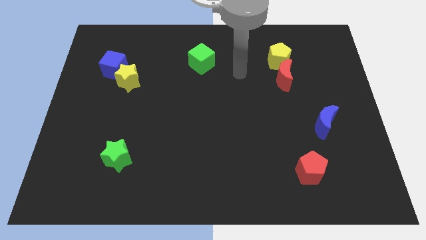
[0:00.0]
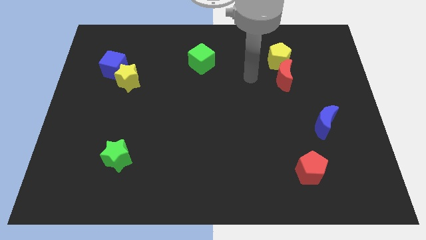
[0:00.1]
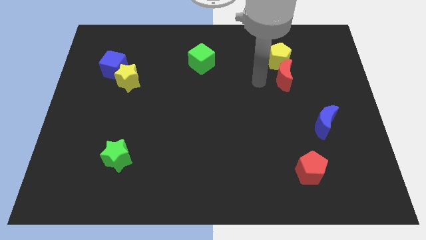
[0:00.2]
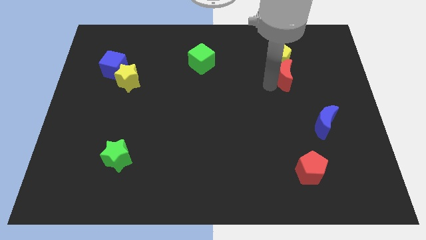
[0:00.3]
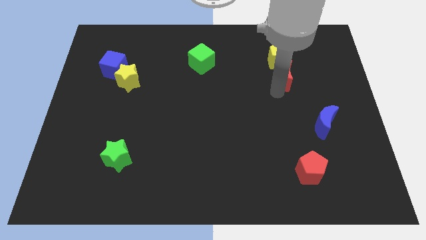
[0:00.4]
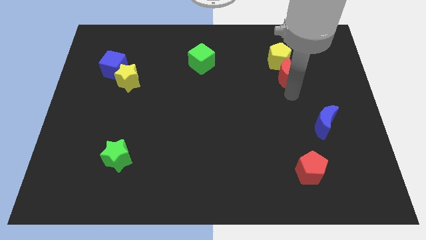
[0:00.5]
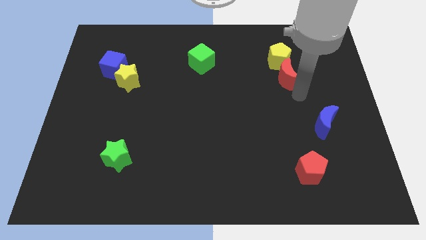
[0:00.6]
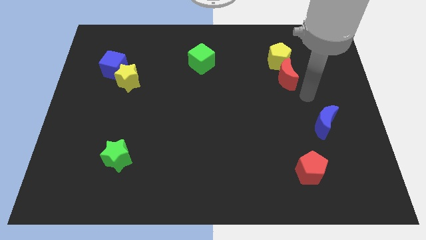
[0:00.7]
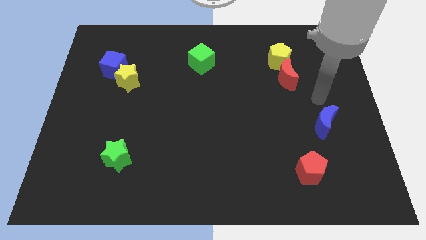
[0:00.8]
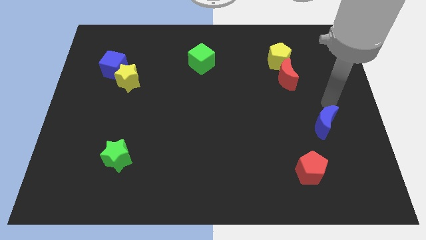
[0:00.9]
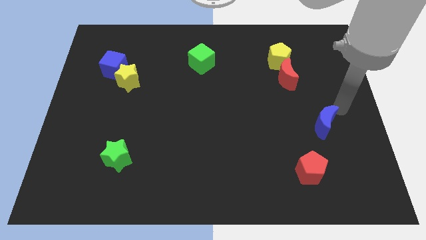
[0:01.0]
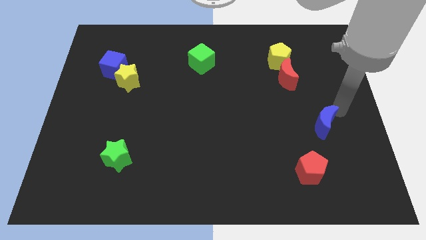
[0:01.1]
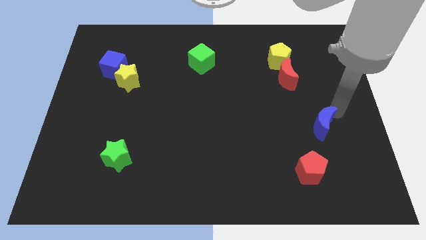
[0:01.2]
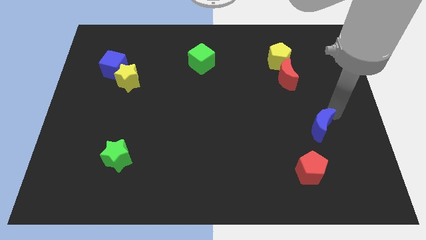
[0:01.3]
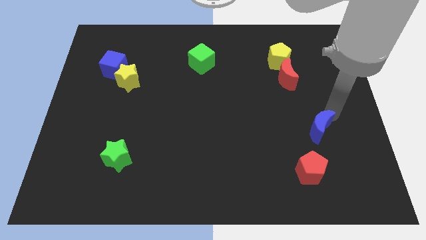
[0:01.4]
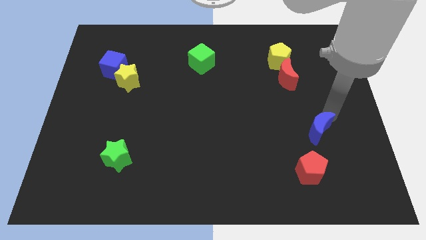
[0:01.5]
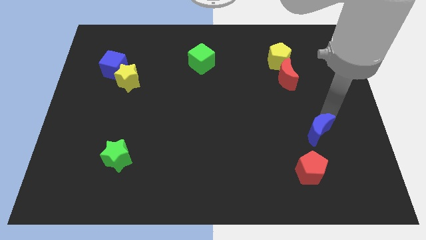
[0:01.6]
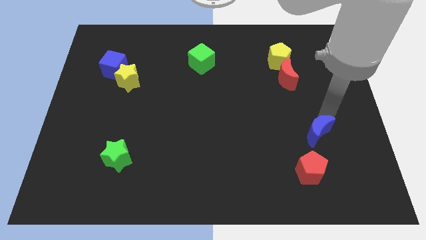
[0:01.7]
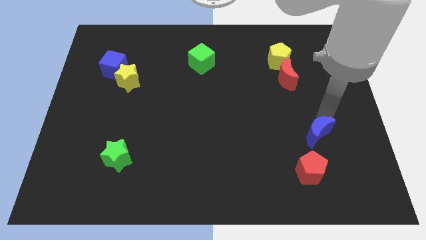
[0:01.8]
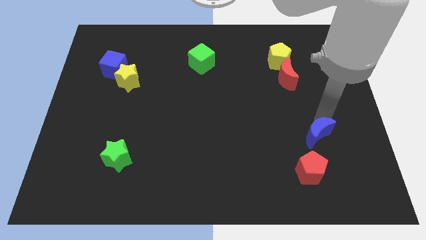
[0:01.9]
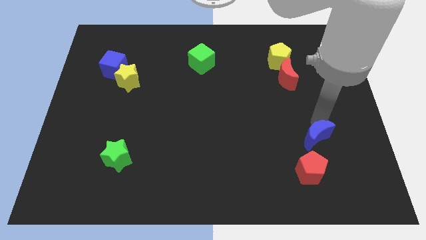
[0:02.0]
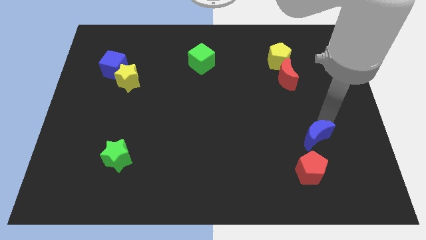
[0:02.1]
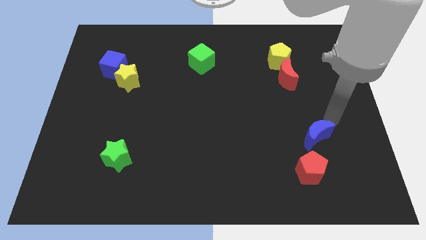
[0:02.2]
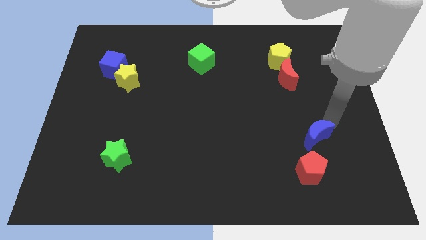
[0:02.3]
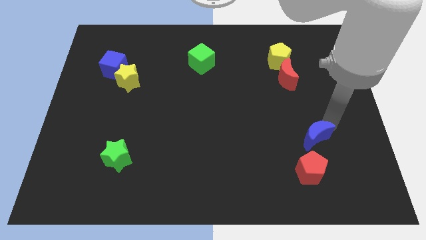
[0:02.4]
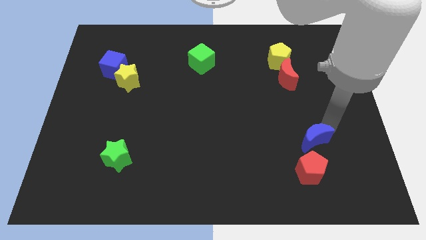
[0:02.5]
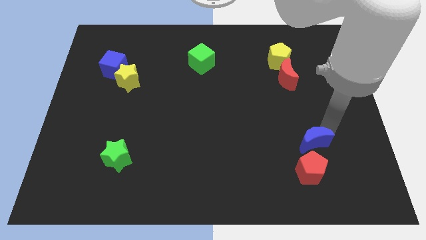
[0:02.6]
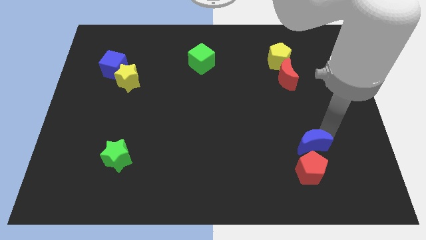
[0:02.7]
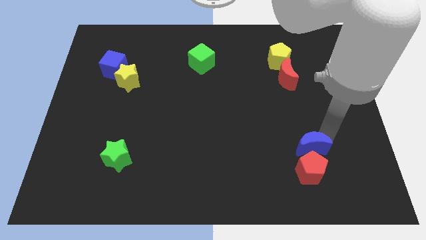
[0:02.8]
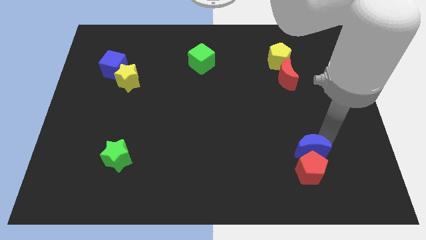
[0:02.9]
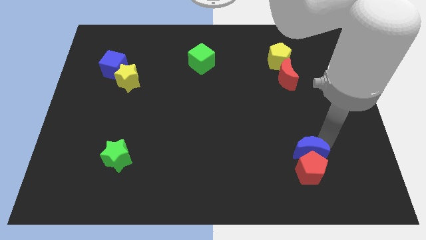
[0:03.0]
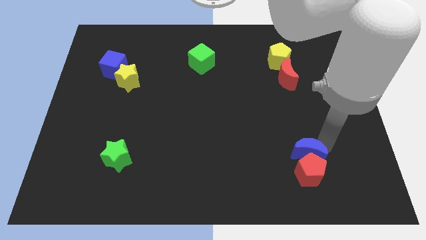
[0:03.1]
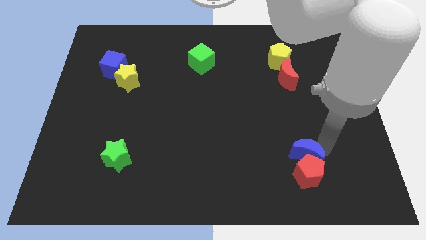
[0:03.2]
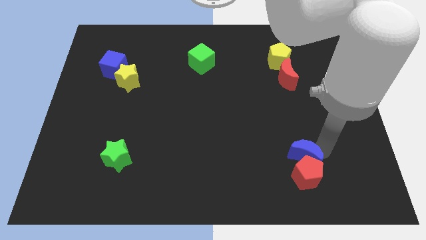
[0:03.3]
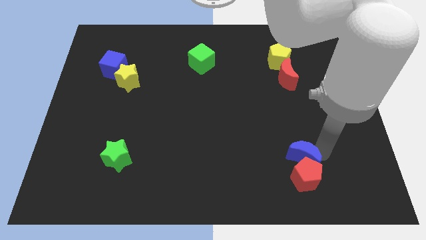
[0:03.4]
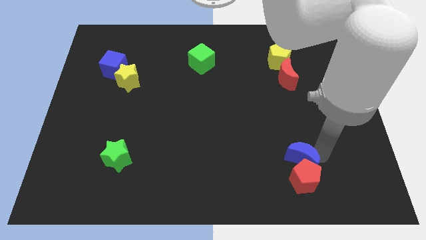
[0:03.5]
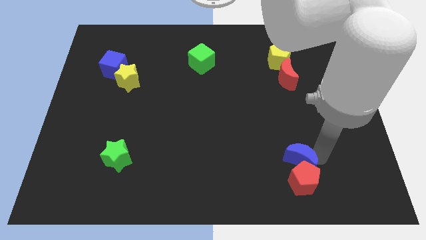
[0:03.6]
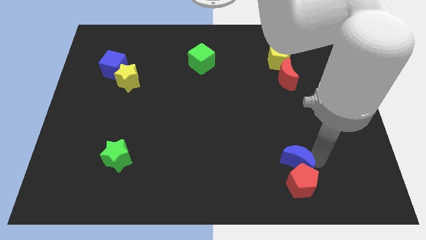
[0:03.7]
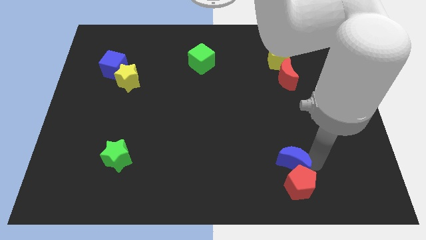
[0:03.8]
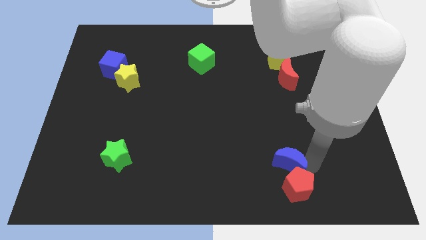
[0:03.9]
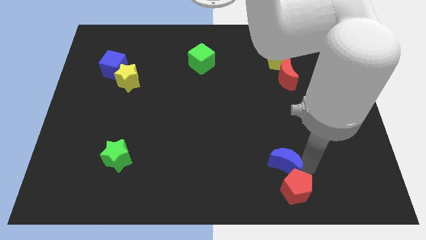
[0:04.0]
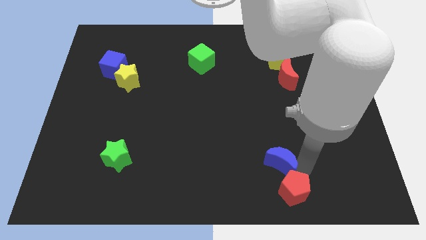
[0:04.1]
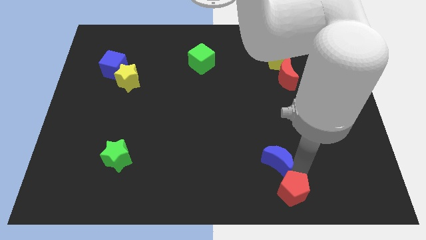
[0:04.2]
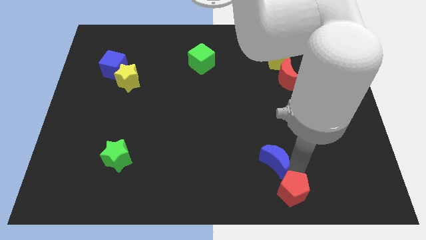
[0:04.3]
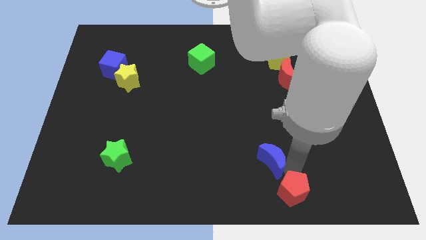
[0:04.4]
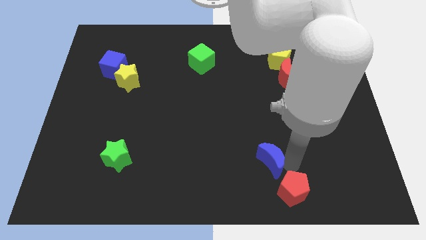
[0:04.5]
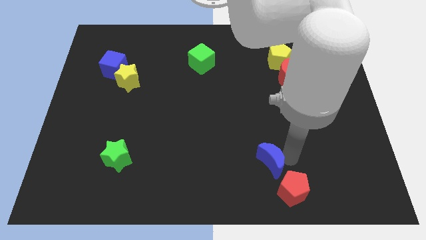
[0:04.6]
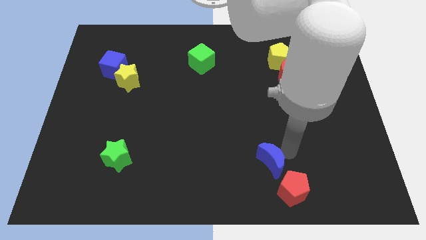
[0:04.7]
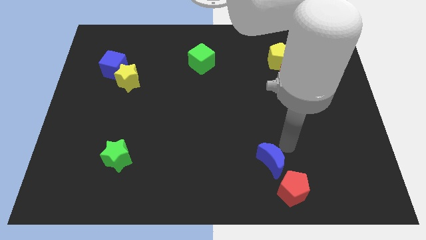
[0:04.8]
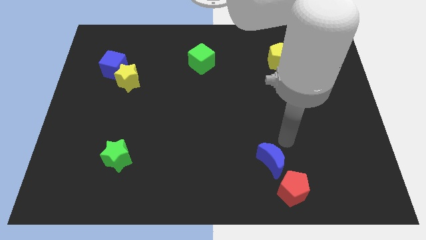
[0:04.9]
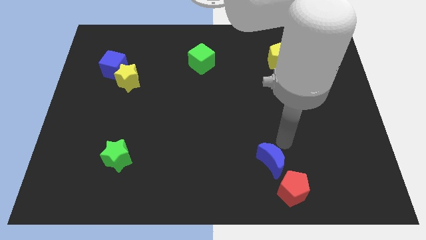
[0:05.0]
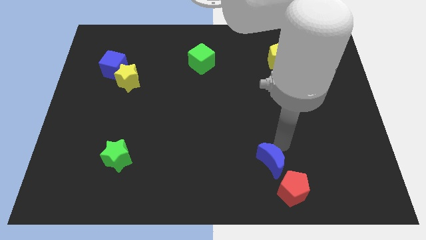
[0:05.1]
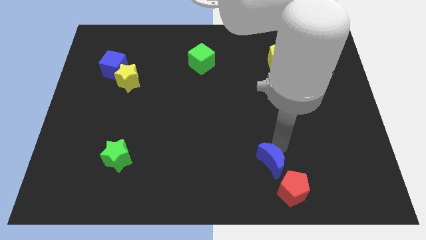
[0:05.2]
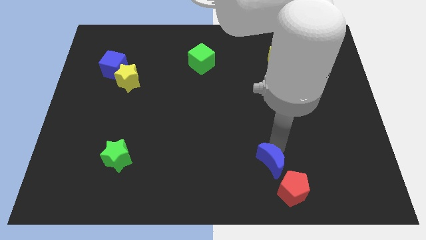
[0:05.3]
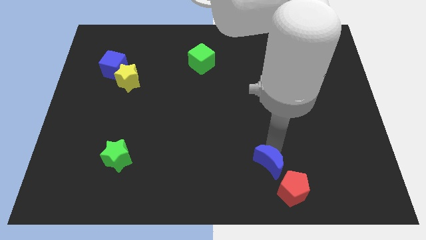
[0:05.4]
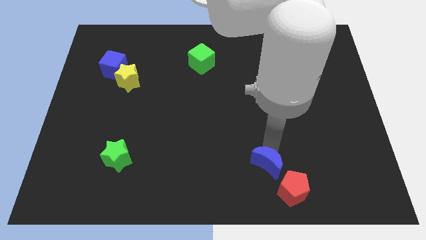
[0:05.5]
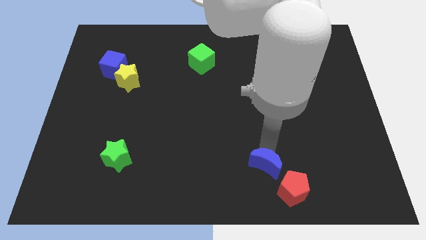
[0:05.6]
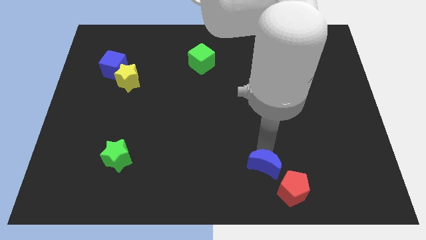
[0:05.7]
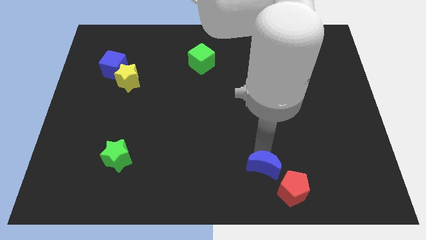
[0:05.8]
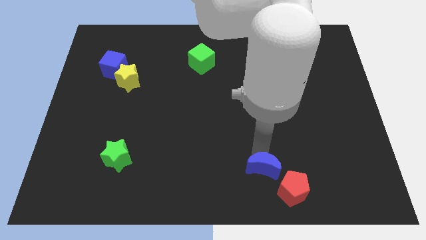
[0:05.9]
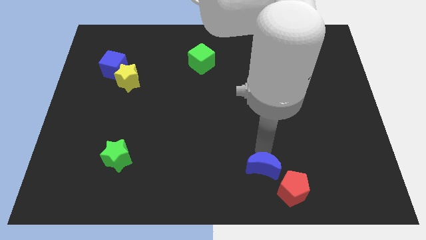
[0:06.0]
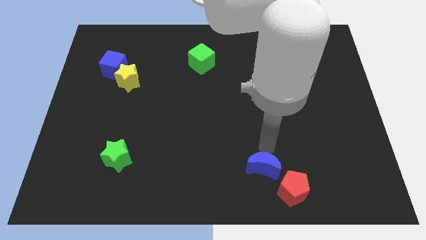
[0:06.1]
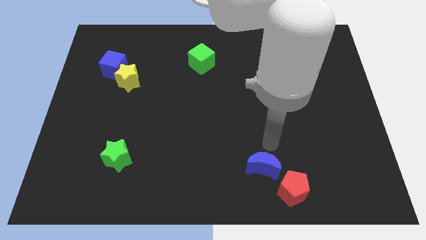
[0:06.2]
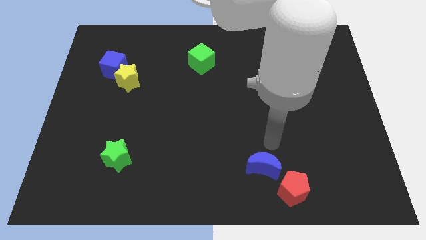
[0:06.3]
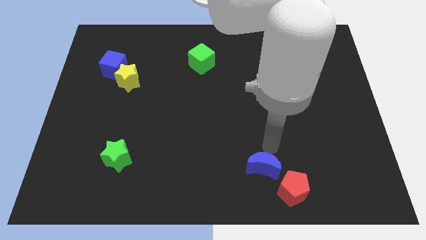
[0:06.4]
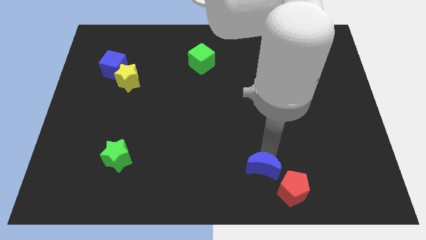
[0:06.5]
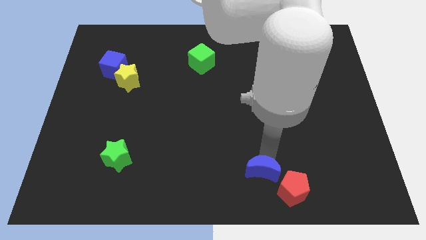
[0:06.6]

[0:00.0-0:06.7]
slide the blue moon to the bottom
